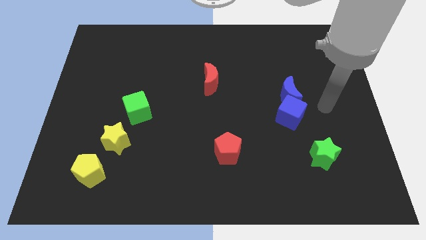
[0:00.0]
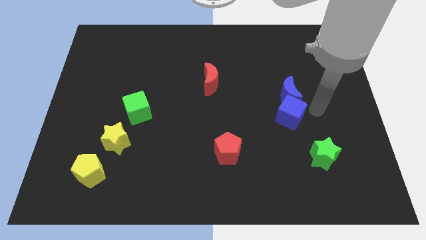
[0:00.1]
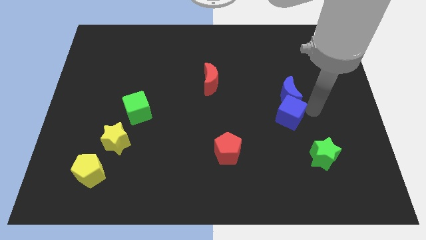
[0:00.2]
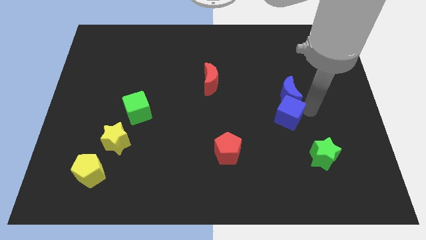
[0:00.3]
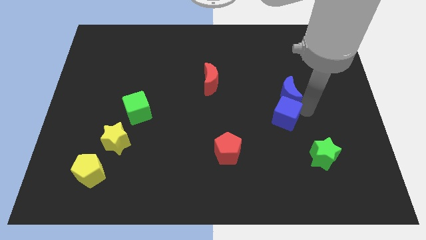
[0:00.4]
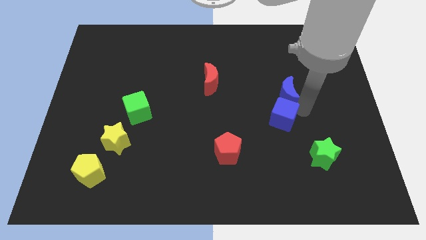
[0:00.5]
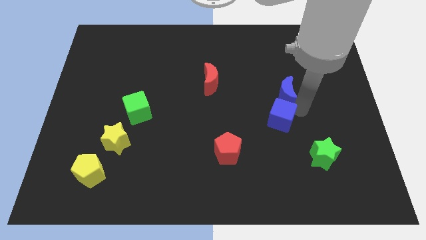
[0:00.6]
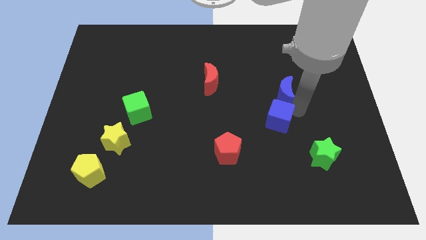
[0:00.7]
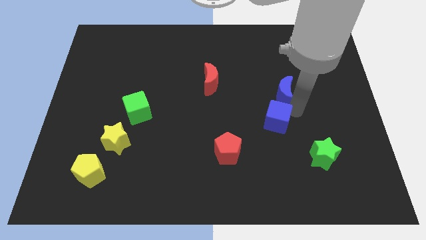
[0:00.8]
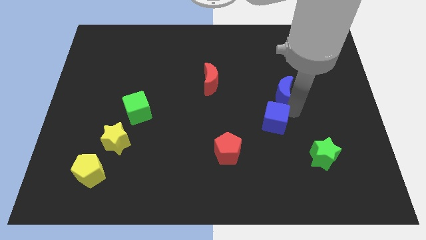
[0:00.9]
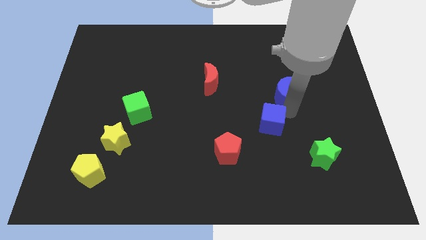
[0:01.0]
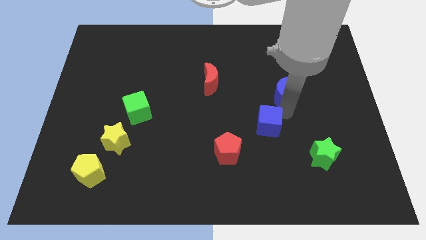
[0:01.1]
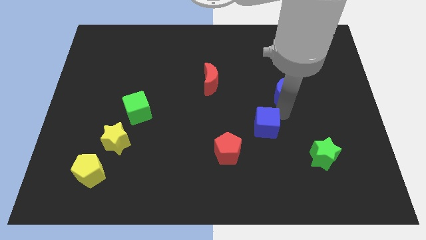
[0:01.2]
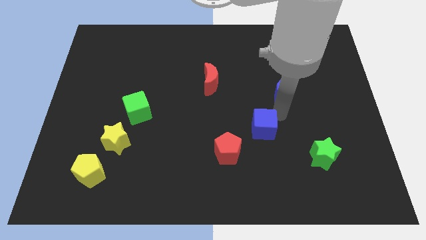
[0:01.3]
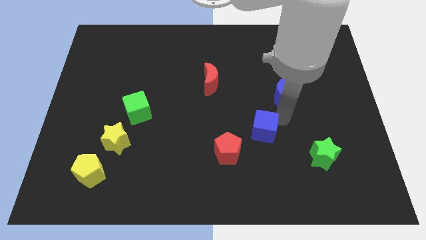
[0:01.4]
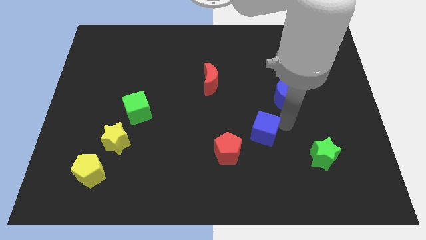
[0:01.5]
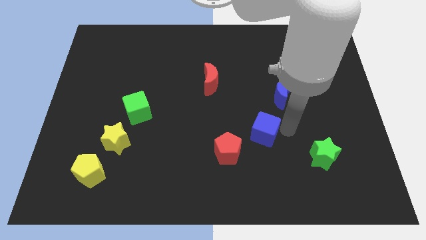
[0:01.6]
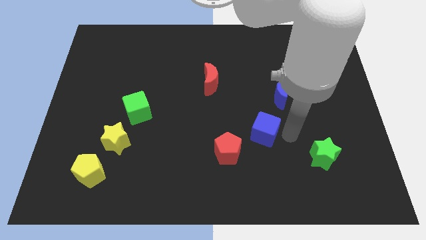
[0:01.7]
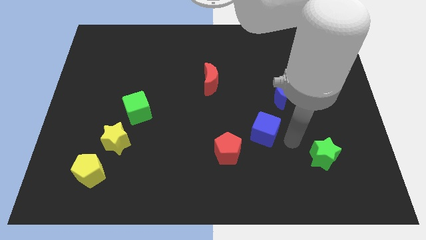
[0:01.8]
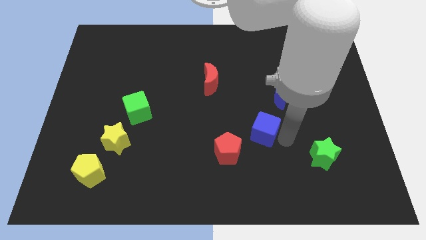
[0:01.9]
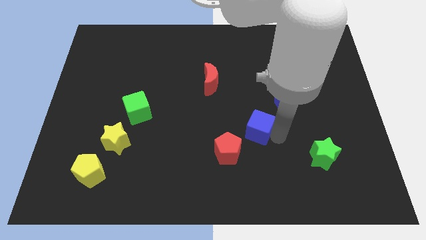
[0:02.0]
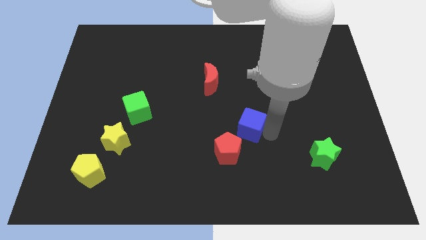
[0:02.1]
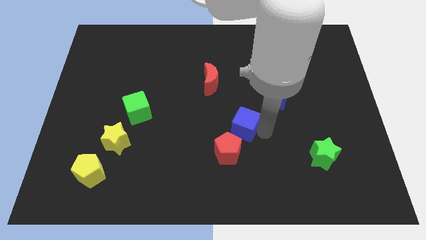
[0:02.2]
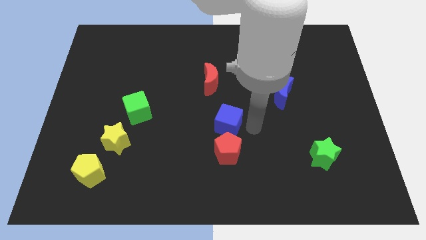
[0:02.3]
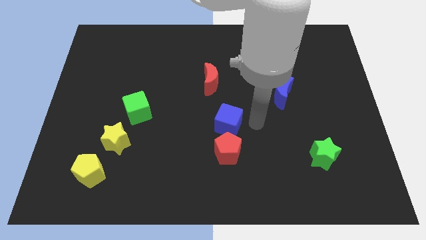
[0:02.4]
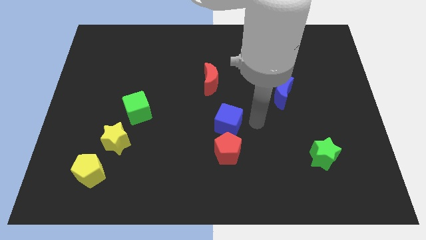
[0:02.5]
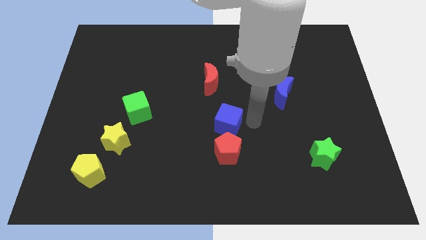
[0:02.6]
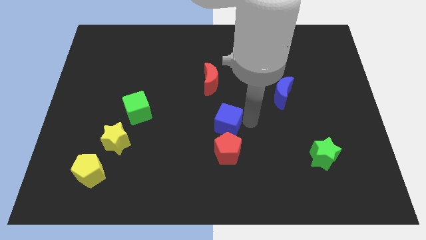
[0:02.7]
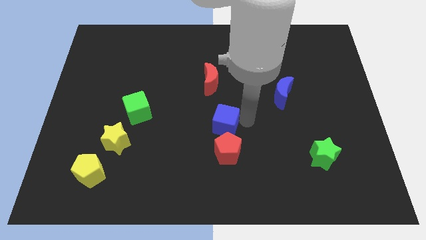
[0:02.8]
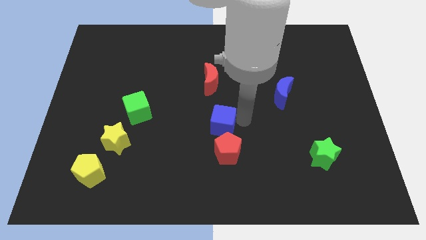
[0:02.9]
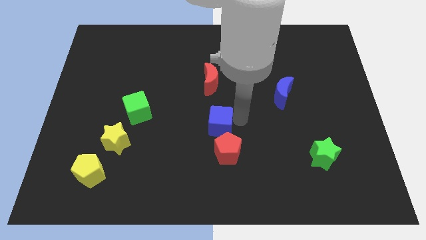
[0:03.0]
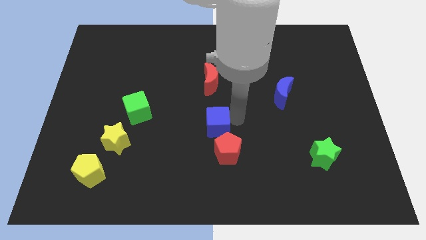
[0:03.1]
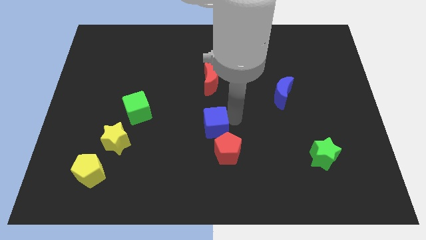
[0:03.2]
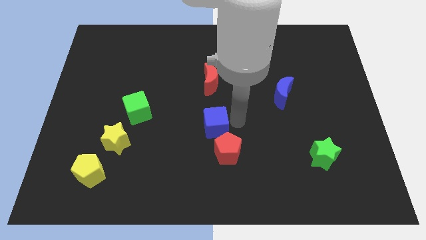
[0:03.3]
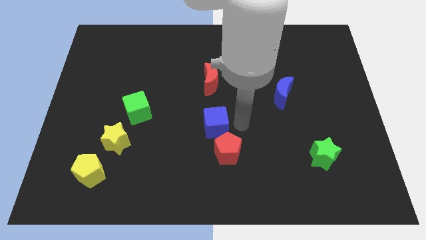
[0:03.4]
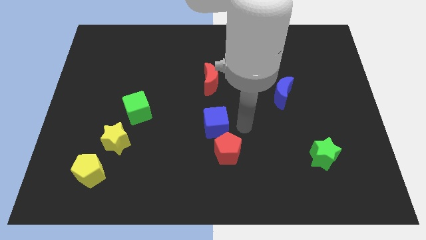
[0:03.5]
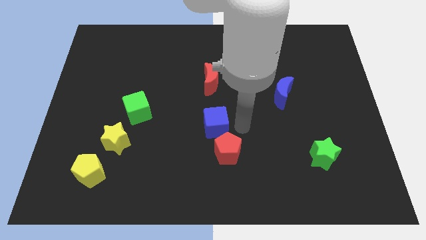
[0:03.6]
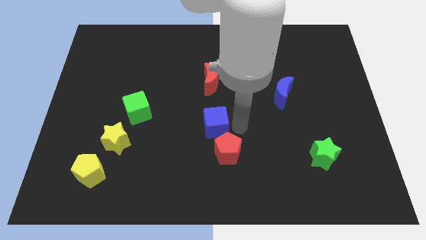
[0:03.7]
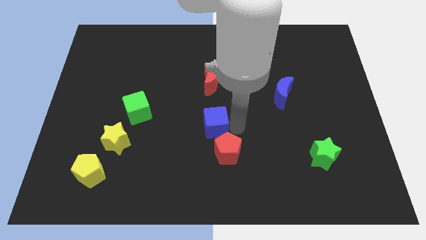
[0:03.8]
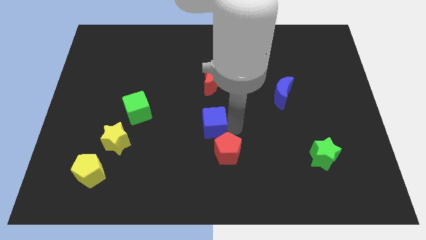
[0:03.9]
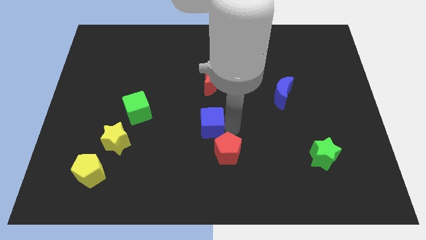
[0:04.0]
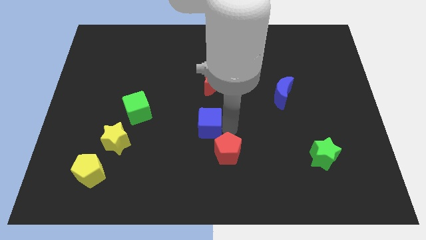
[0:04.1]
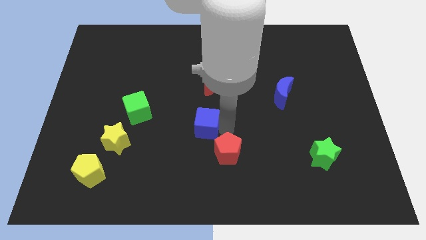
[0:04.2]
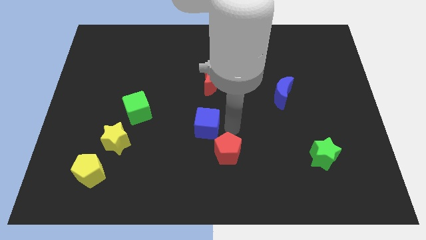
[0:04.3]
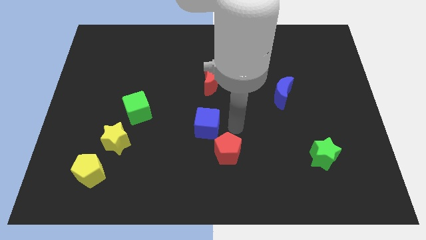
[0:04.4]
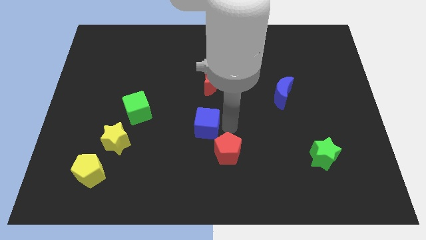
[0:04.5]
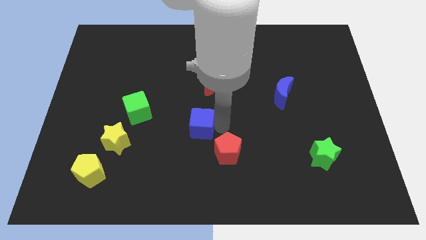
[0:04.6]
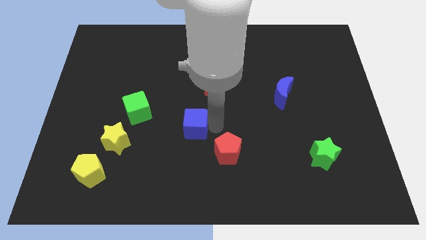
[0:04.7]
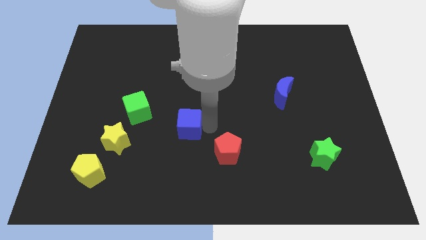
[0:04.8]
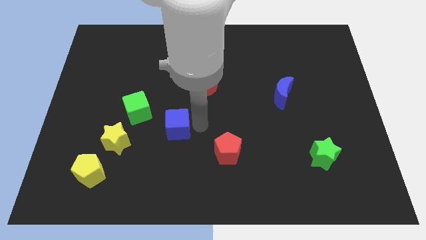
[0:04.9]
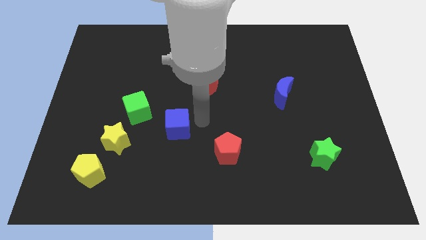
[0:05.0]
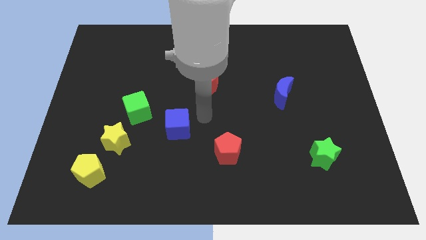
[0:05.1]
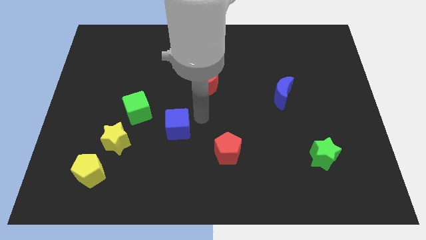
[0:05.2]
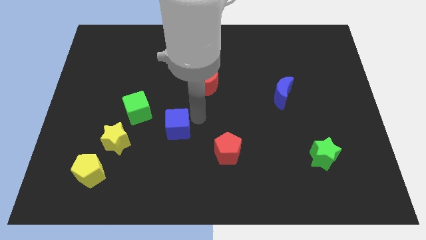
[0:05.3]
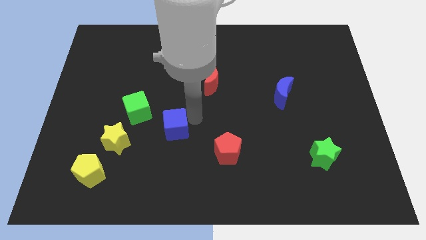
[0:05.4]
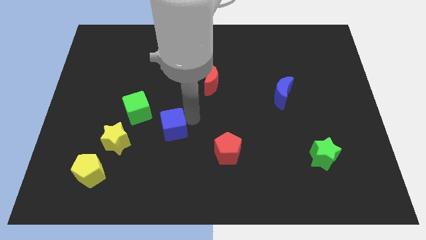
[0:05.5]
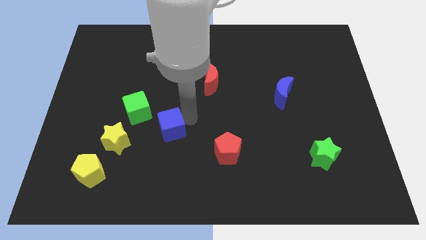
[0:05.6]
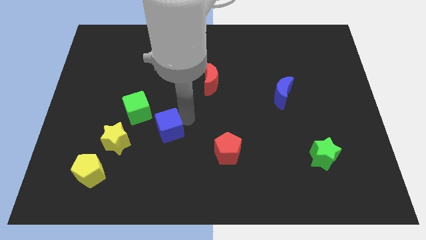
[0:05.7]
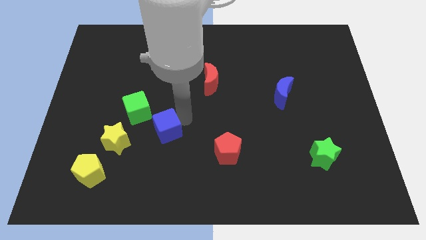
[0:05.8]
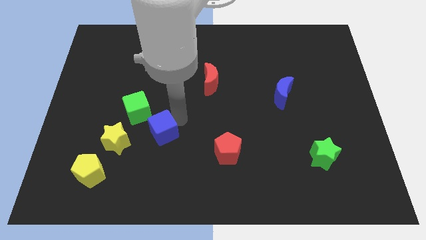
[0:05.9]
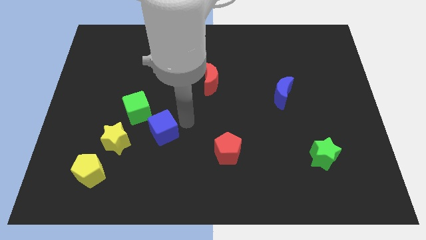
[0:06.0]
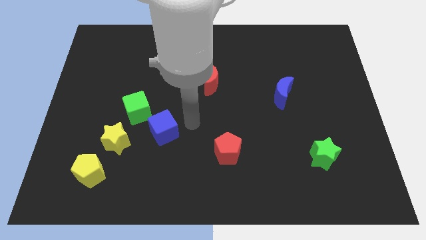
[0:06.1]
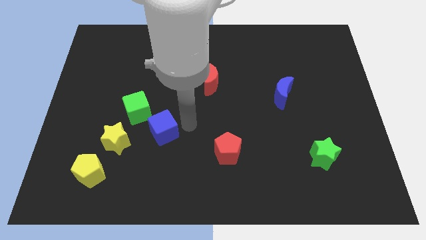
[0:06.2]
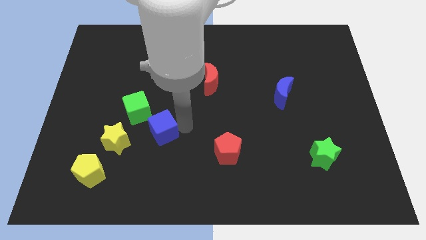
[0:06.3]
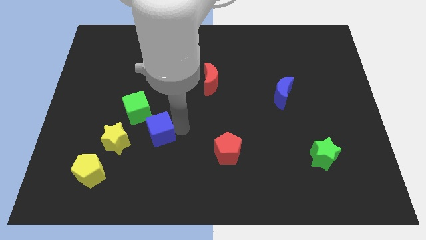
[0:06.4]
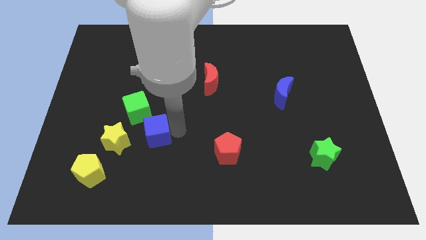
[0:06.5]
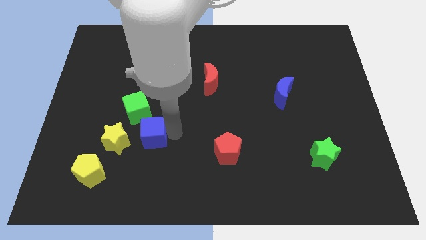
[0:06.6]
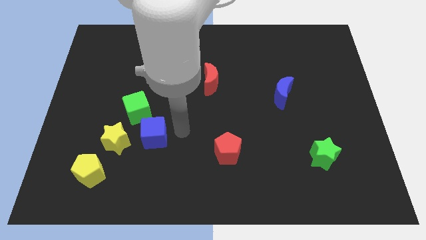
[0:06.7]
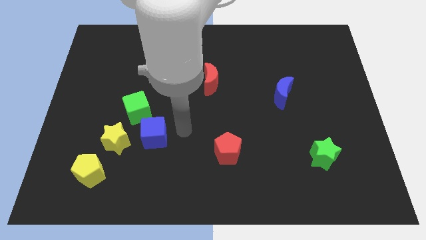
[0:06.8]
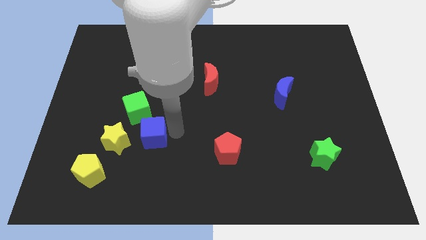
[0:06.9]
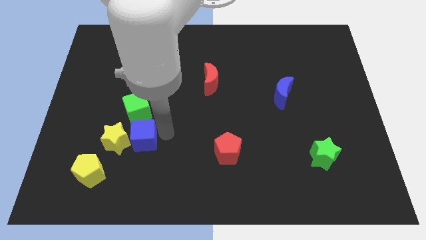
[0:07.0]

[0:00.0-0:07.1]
move the blue cube close to the yellow star
